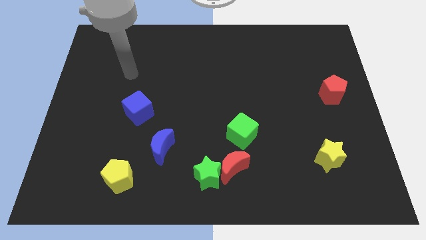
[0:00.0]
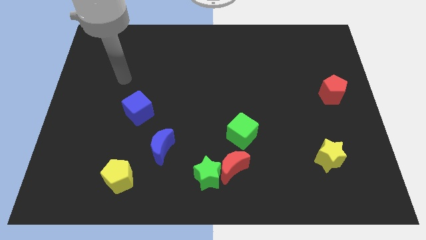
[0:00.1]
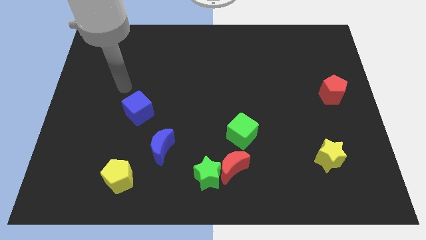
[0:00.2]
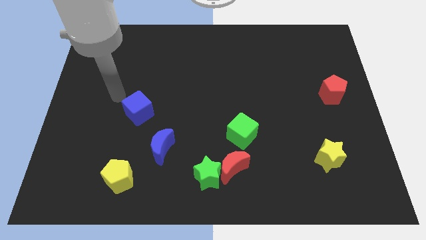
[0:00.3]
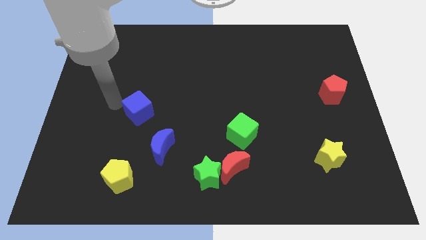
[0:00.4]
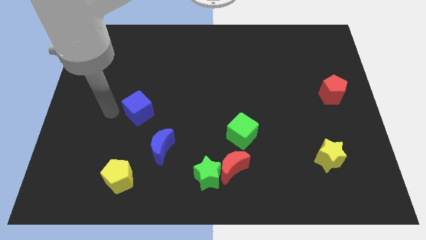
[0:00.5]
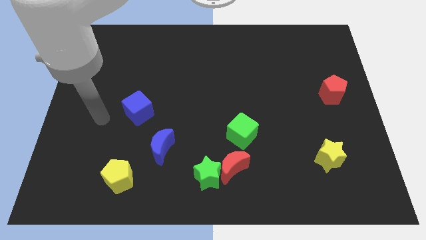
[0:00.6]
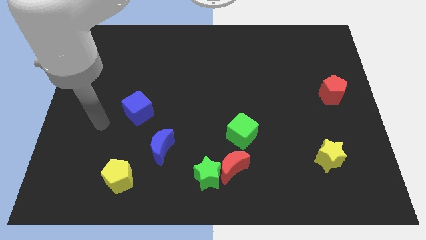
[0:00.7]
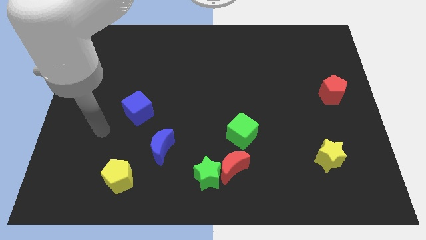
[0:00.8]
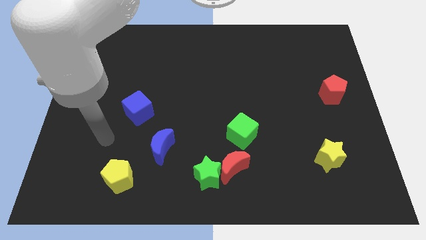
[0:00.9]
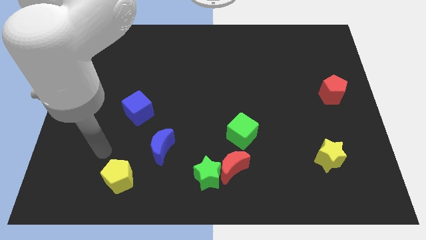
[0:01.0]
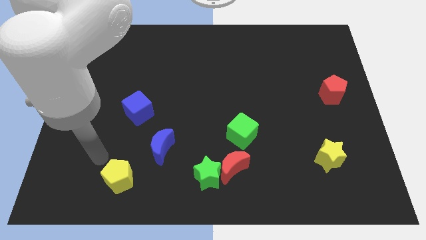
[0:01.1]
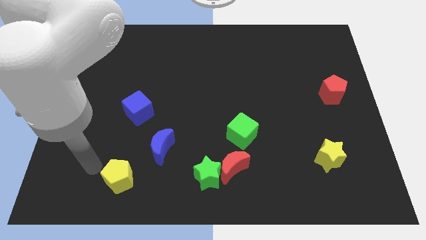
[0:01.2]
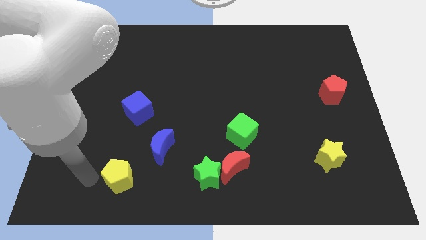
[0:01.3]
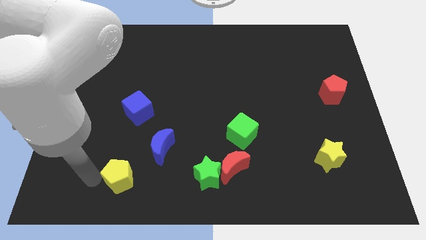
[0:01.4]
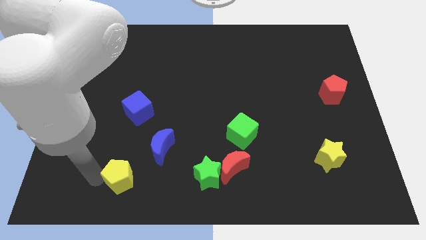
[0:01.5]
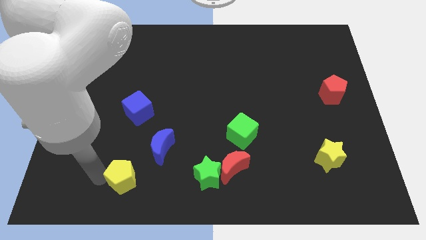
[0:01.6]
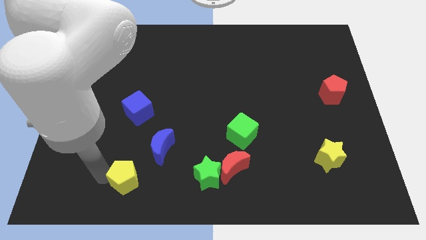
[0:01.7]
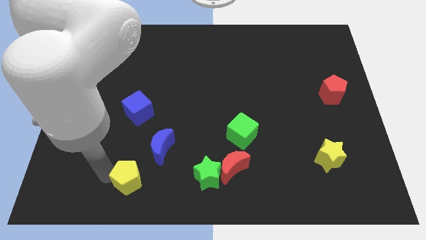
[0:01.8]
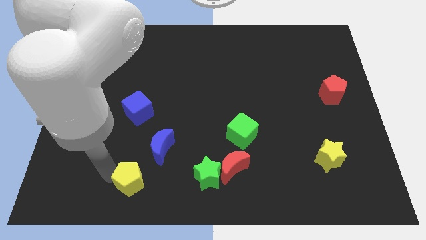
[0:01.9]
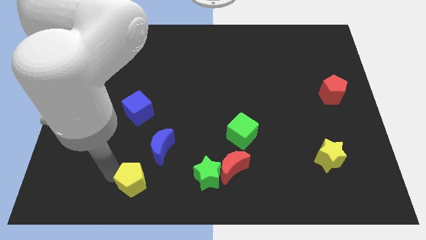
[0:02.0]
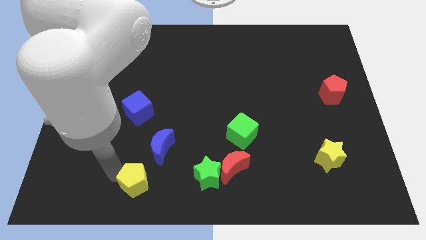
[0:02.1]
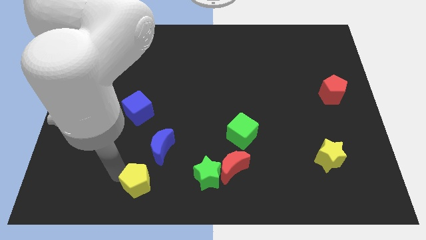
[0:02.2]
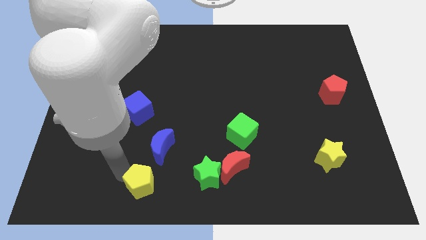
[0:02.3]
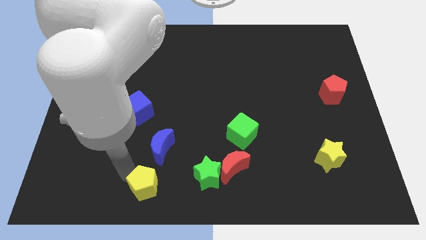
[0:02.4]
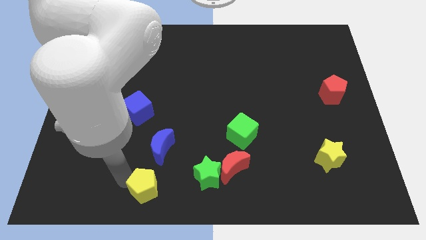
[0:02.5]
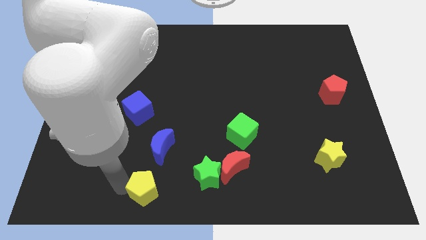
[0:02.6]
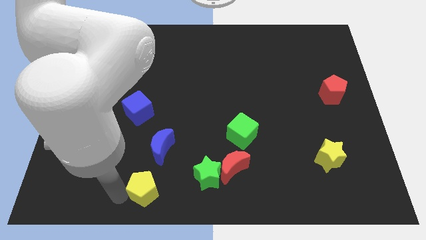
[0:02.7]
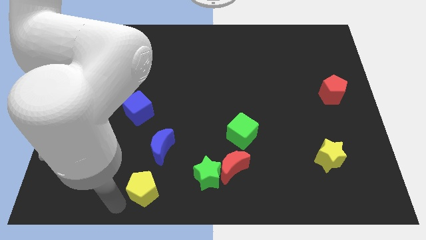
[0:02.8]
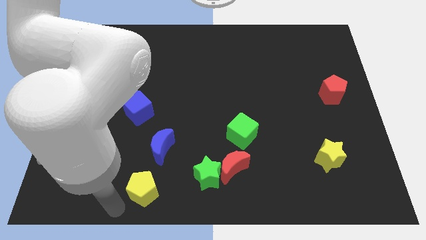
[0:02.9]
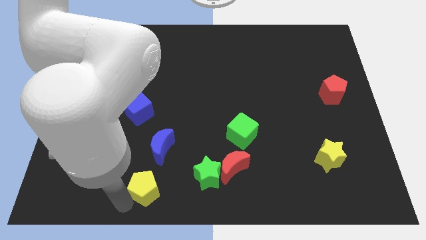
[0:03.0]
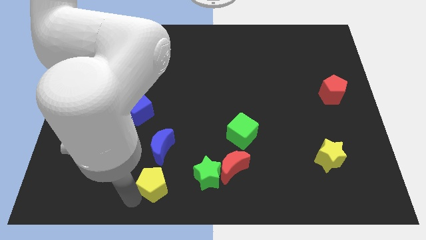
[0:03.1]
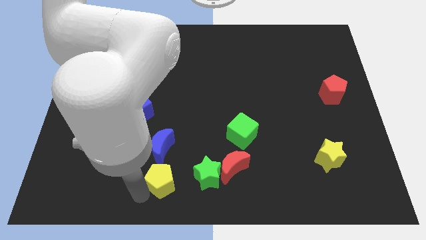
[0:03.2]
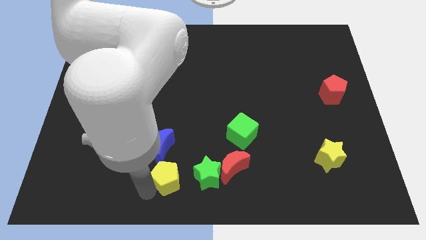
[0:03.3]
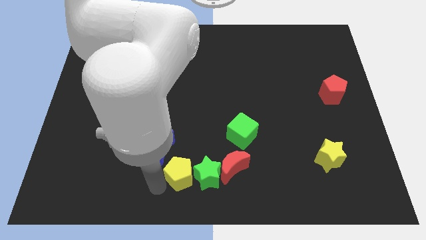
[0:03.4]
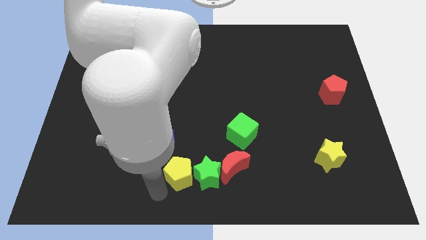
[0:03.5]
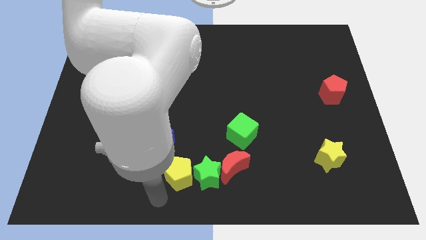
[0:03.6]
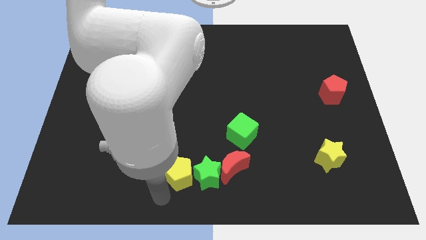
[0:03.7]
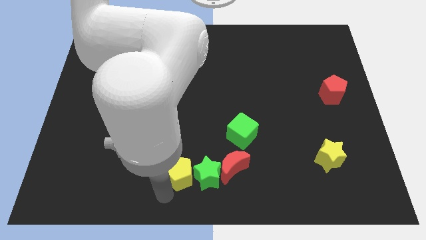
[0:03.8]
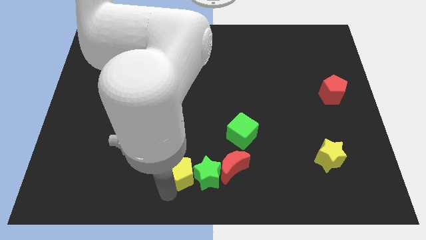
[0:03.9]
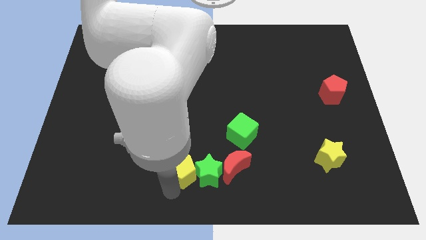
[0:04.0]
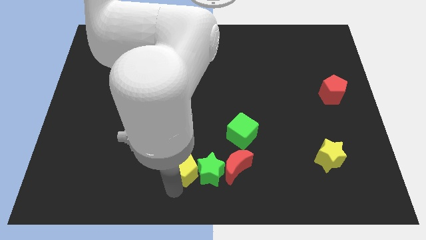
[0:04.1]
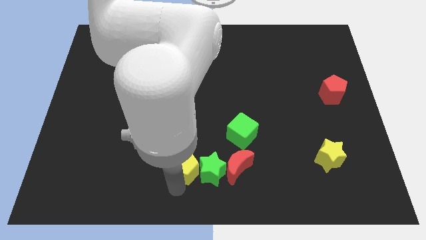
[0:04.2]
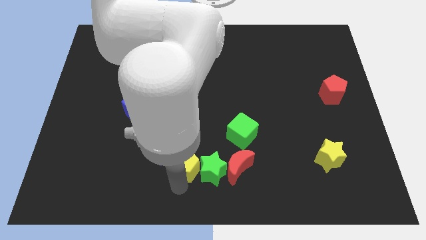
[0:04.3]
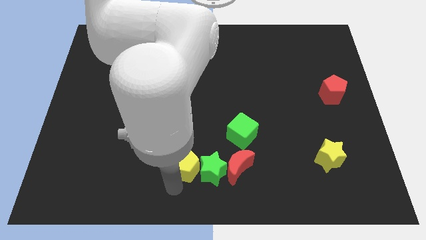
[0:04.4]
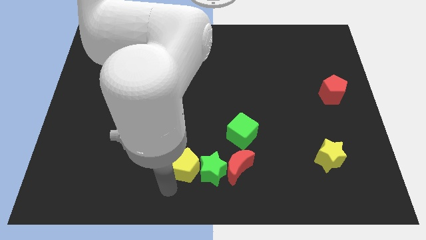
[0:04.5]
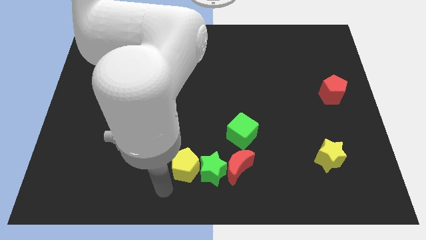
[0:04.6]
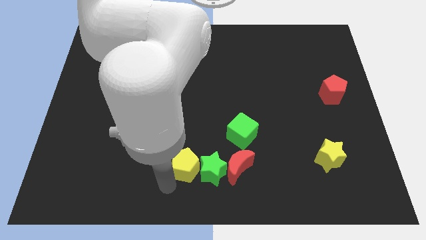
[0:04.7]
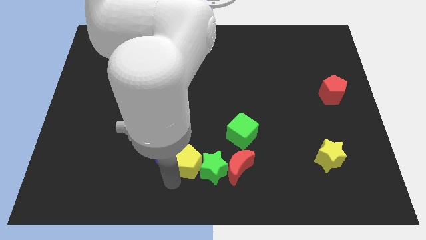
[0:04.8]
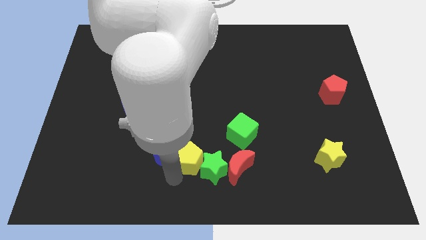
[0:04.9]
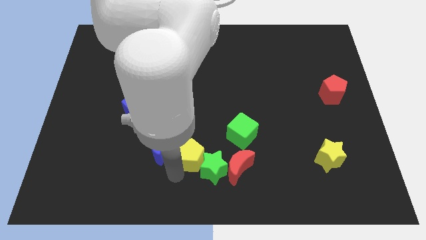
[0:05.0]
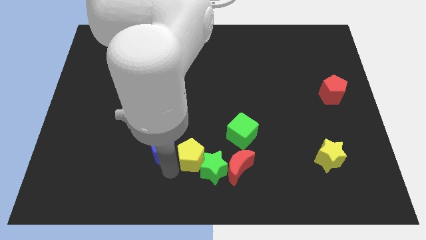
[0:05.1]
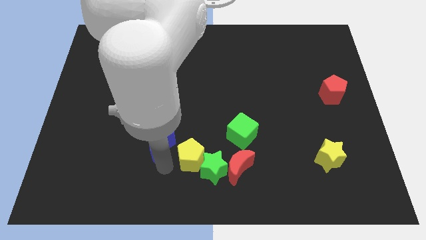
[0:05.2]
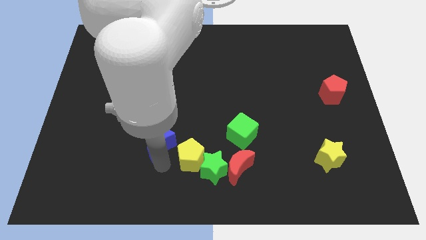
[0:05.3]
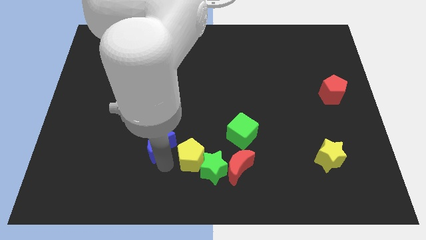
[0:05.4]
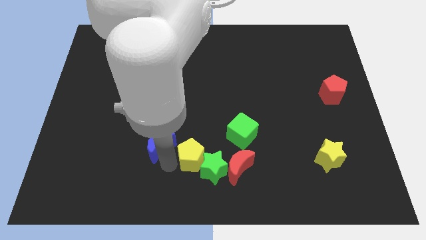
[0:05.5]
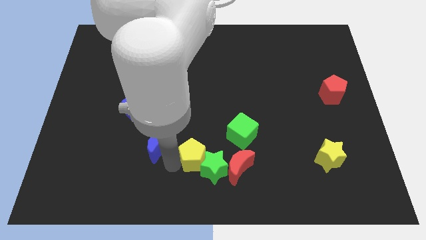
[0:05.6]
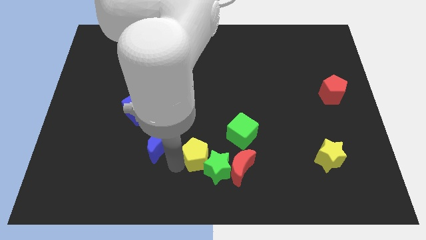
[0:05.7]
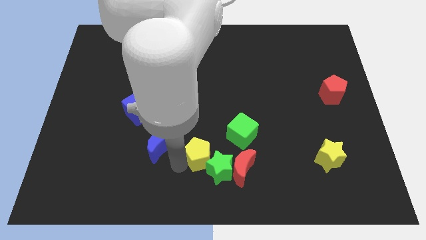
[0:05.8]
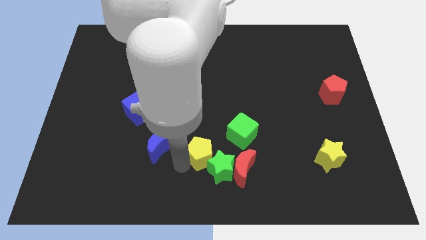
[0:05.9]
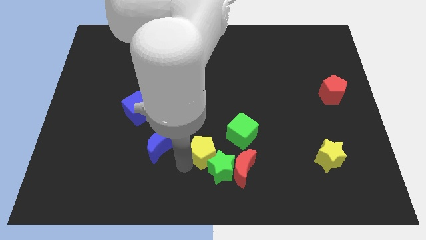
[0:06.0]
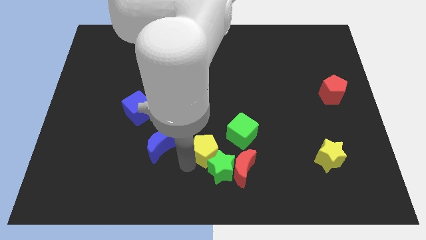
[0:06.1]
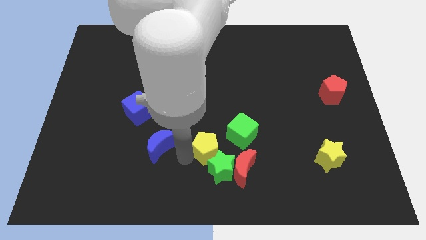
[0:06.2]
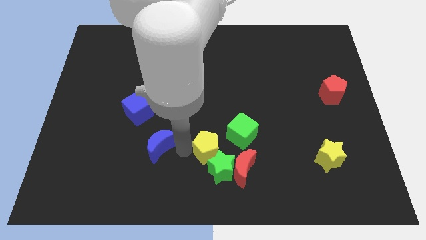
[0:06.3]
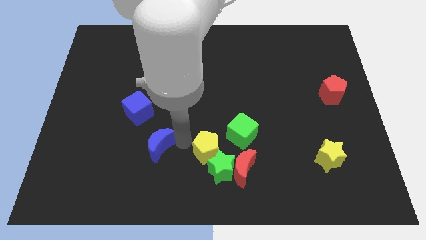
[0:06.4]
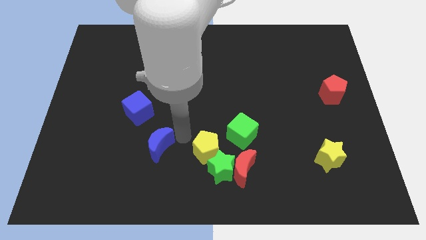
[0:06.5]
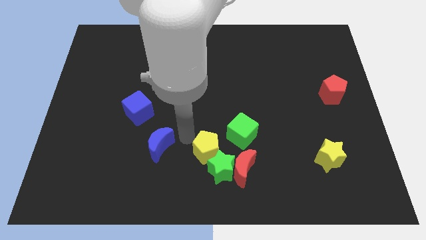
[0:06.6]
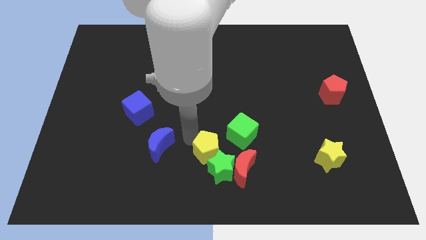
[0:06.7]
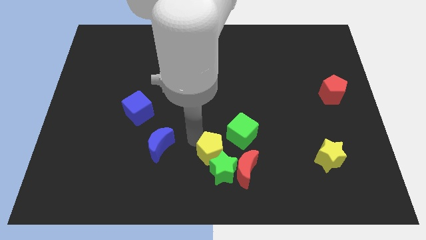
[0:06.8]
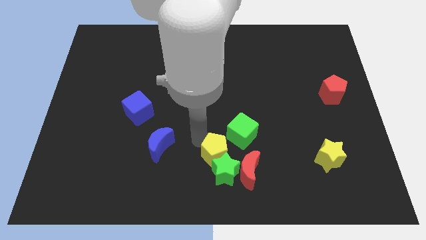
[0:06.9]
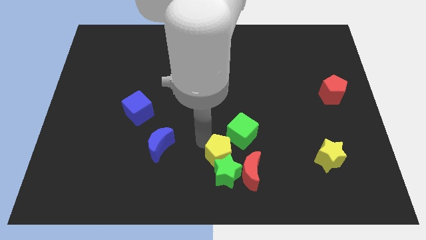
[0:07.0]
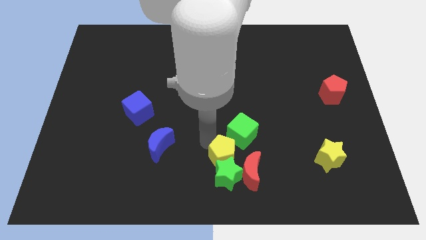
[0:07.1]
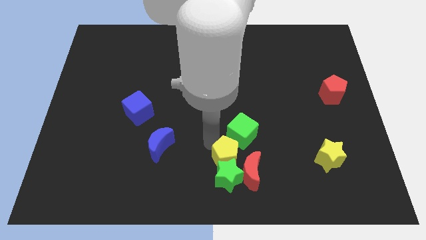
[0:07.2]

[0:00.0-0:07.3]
put the yellow pentagon to the red moon

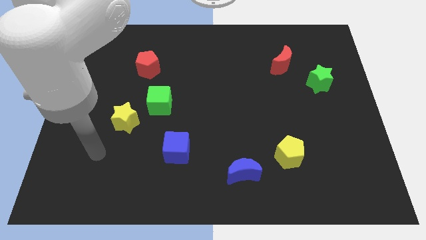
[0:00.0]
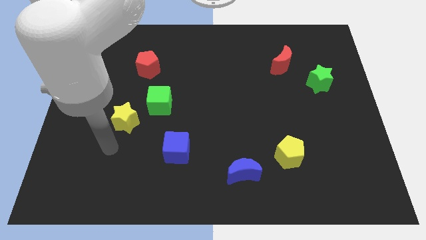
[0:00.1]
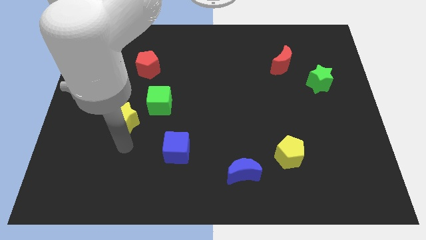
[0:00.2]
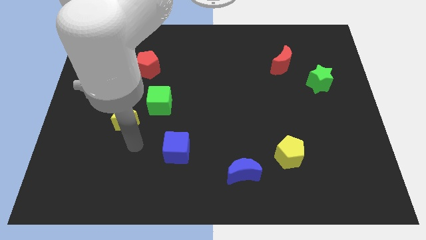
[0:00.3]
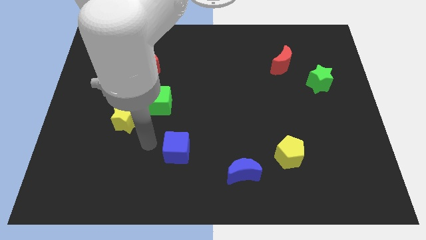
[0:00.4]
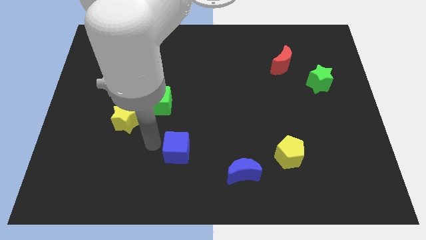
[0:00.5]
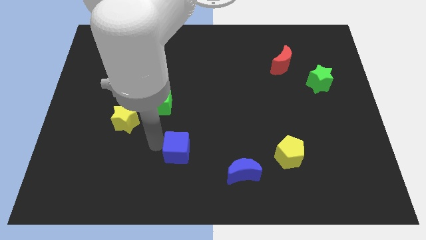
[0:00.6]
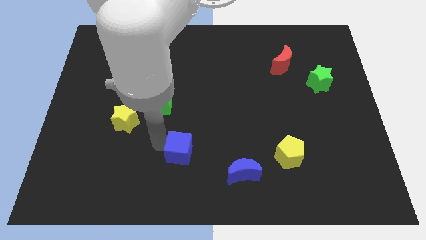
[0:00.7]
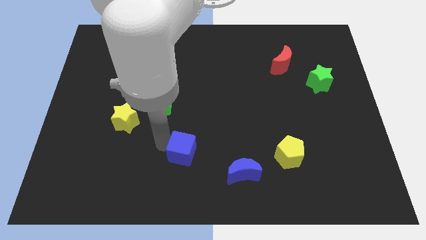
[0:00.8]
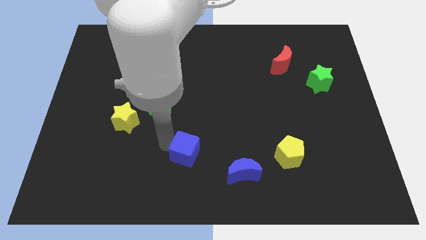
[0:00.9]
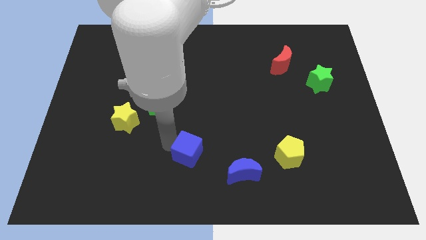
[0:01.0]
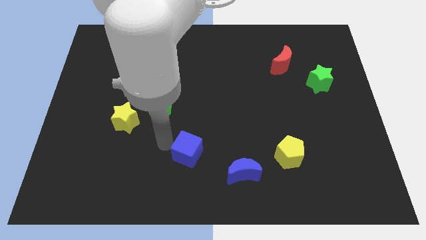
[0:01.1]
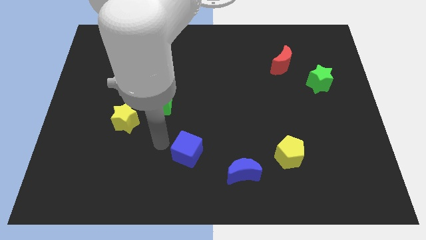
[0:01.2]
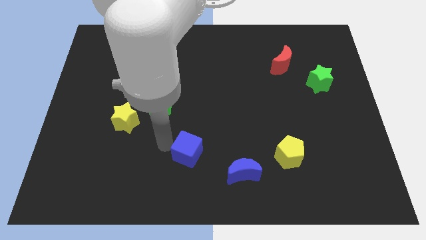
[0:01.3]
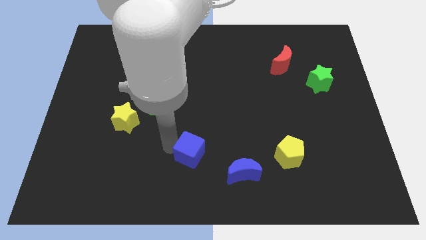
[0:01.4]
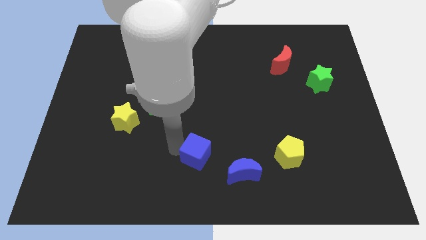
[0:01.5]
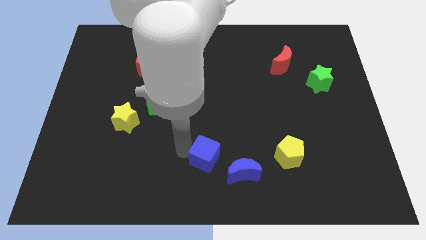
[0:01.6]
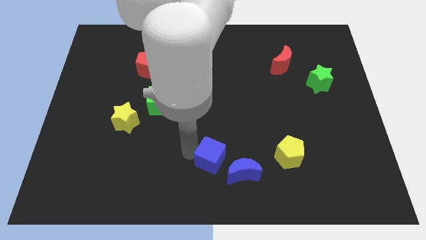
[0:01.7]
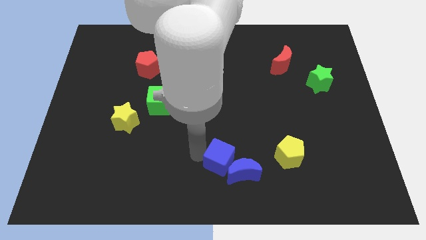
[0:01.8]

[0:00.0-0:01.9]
put the blue cube towards the blue moon
